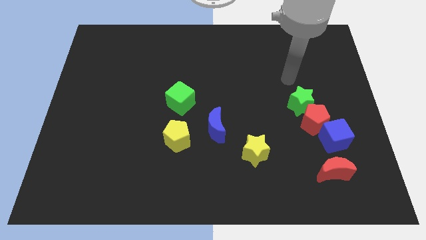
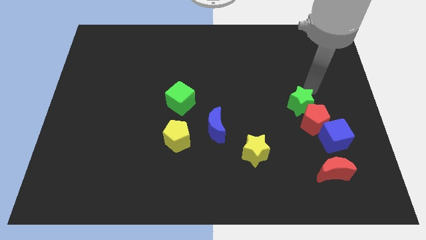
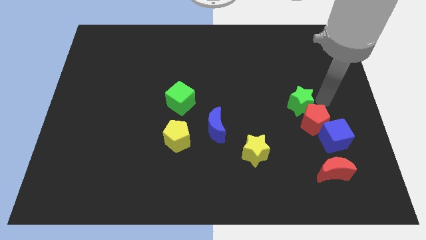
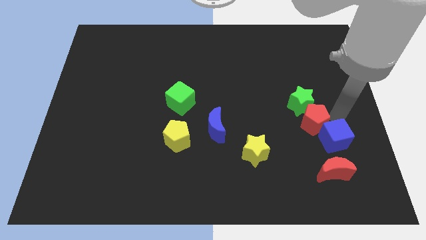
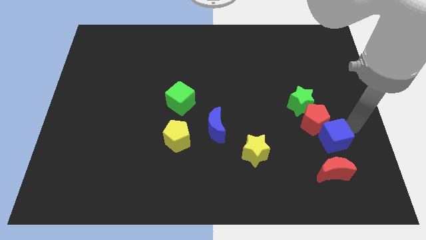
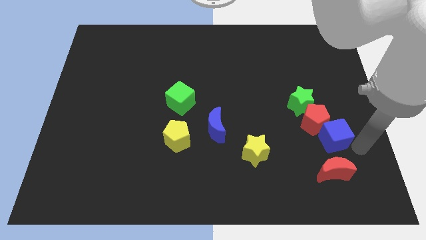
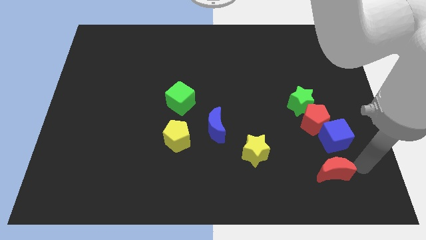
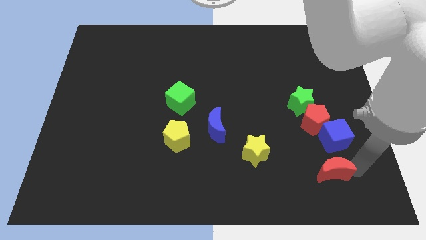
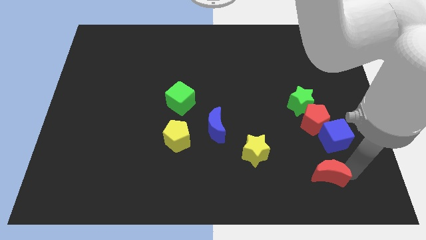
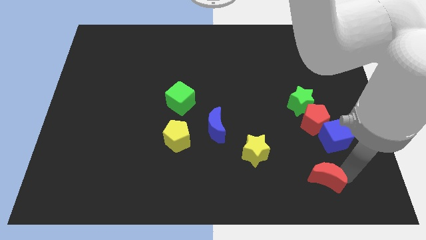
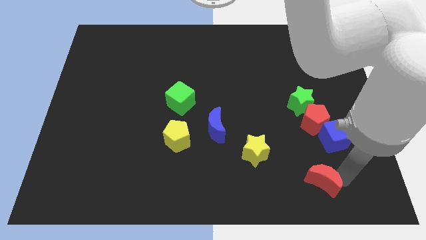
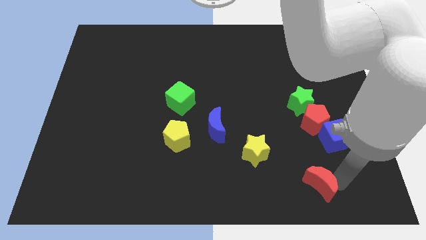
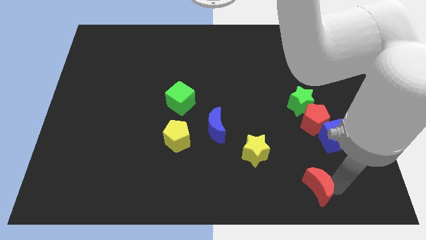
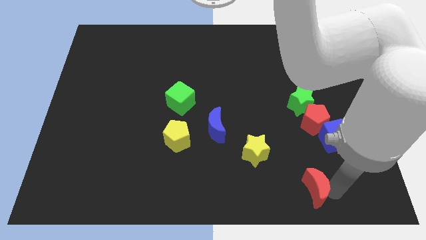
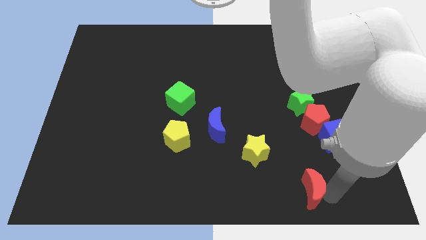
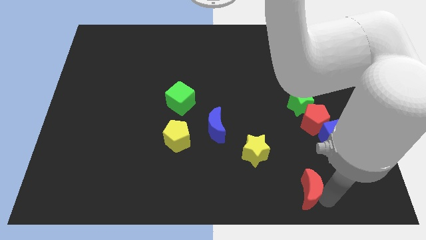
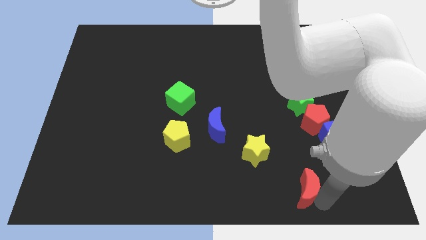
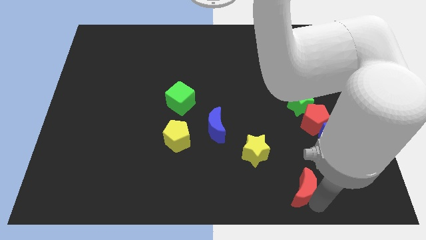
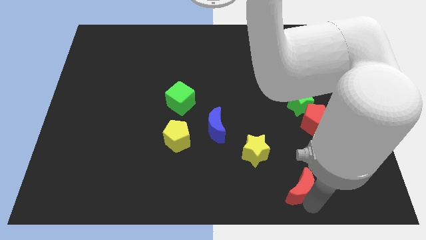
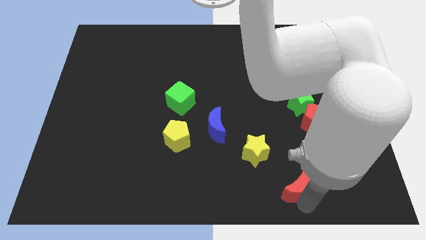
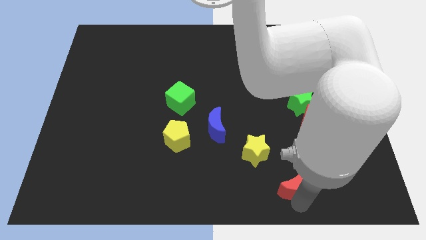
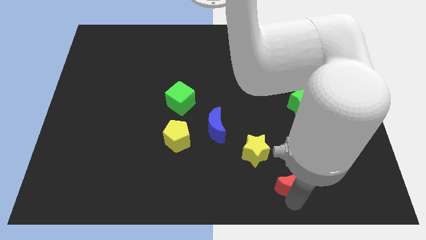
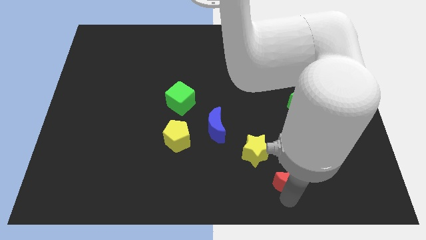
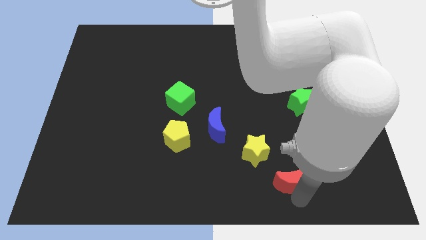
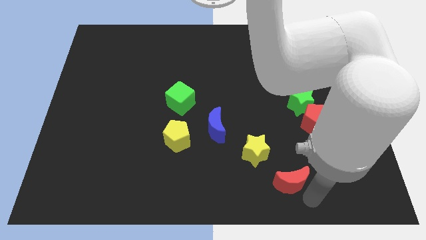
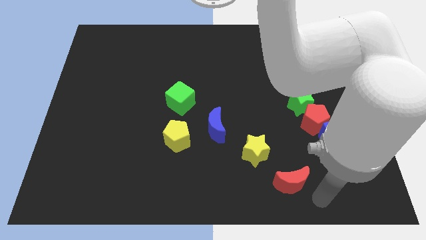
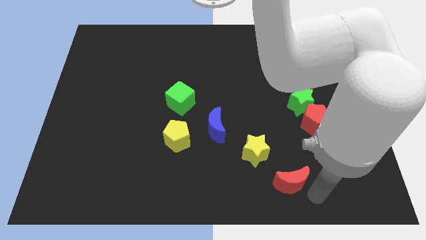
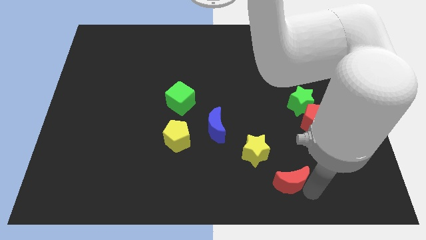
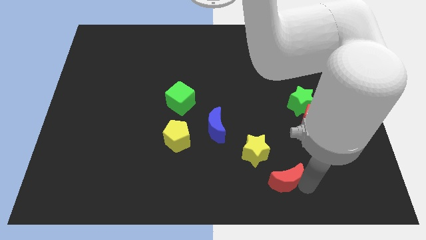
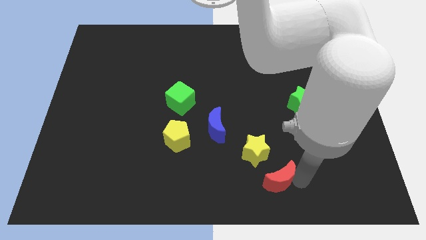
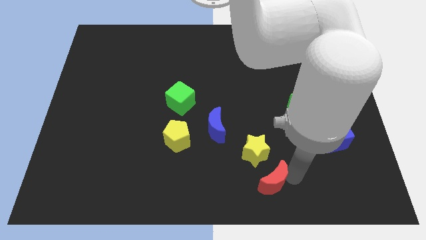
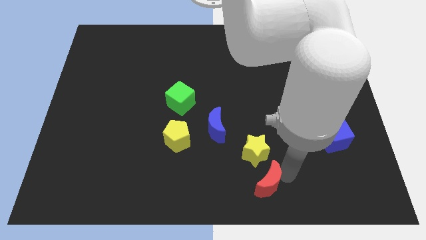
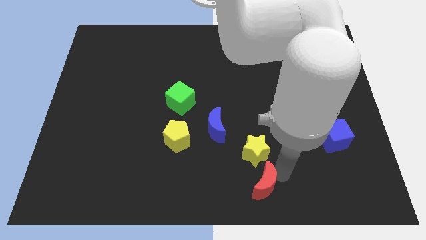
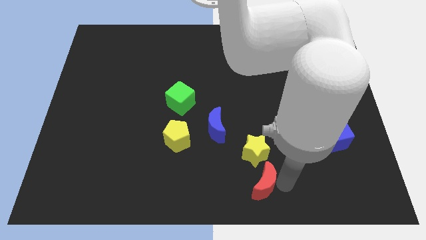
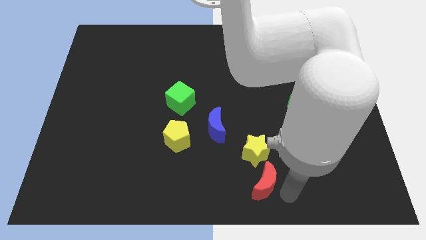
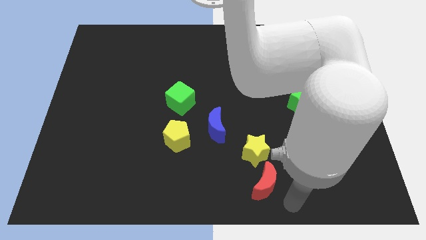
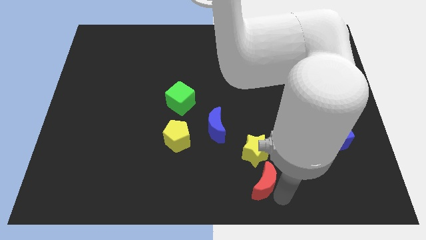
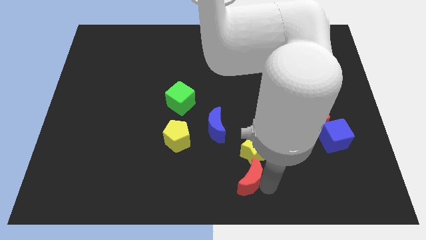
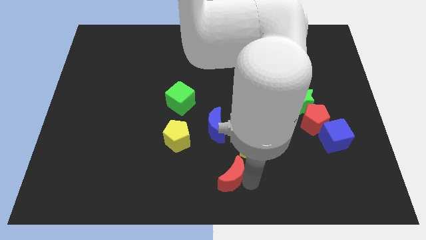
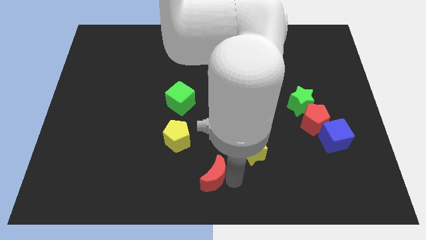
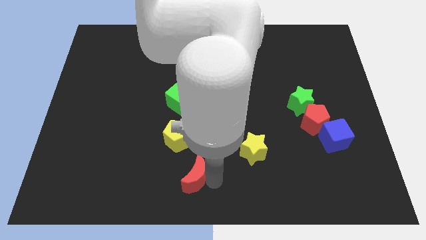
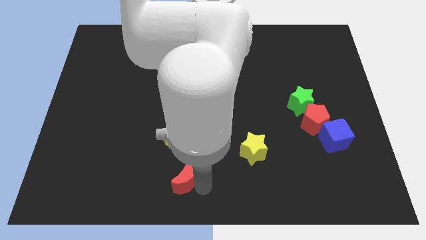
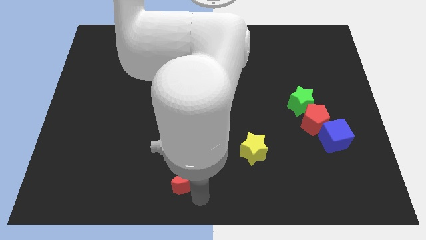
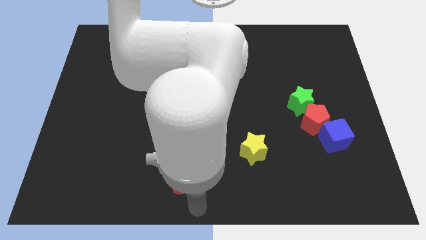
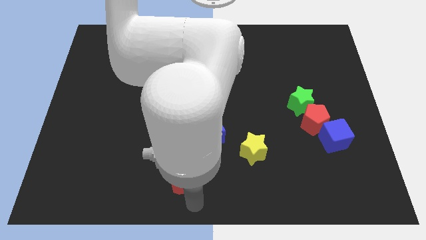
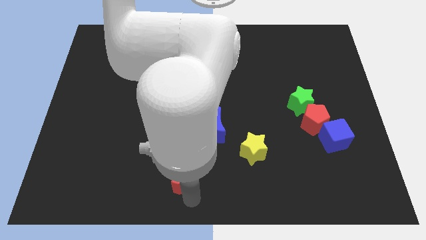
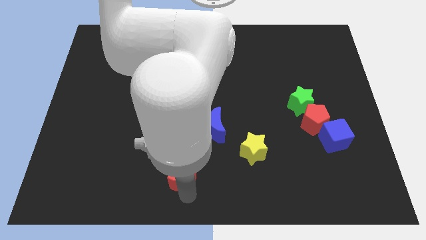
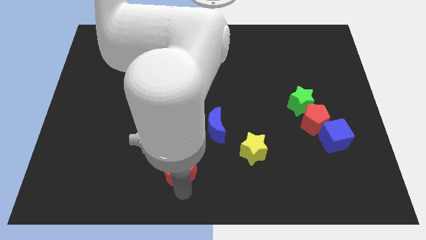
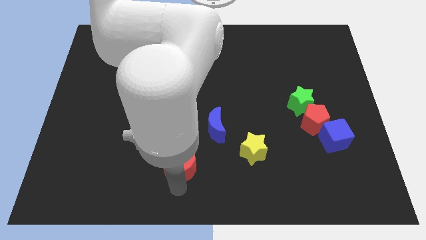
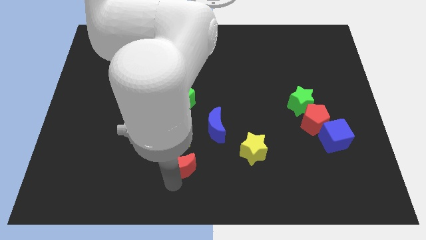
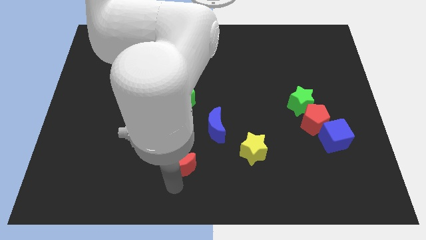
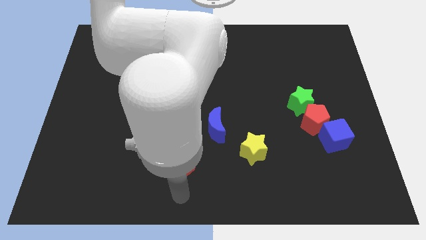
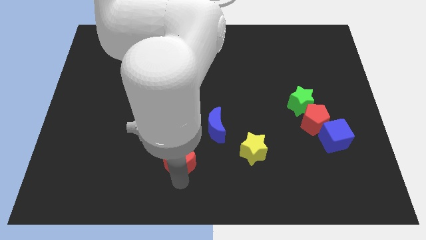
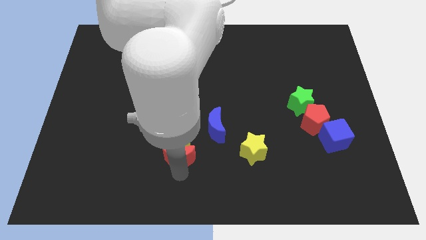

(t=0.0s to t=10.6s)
move the red moon below the green cube

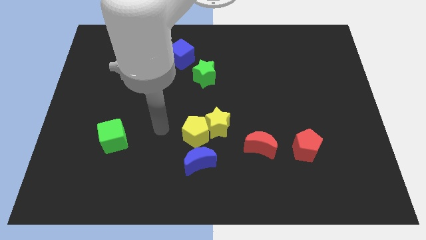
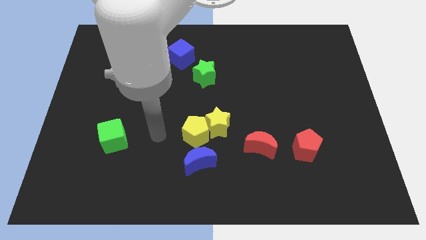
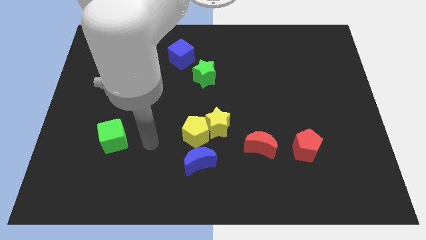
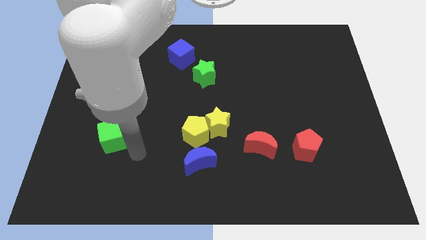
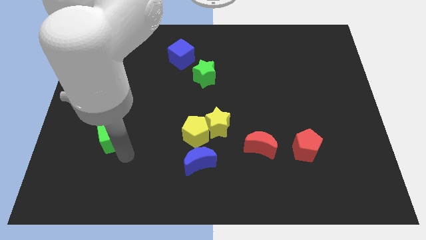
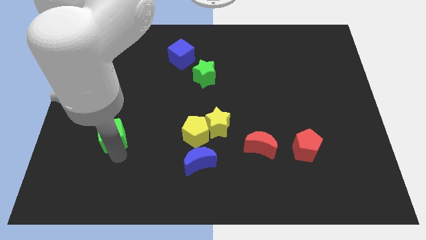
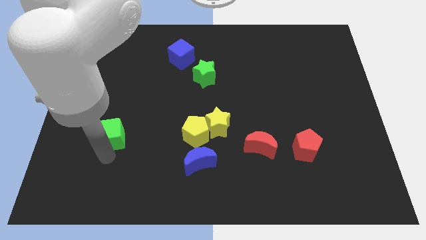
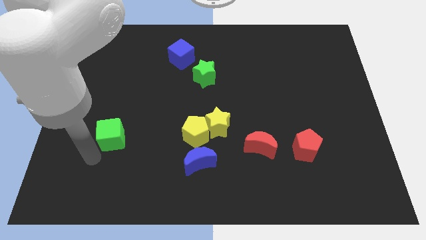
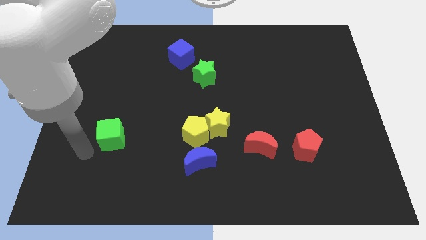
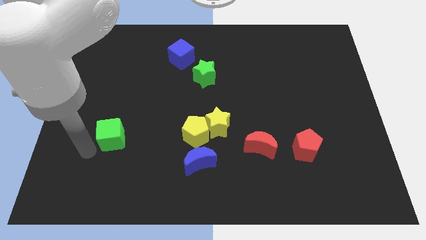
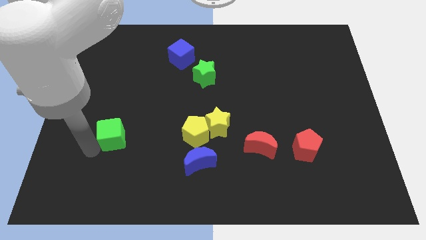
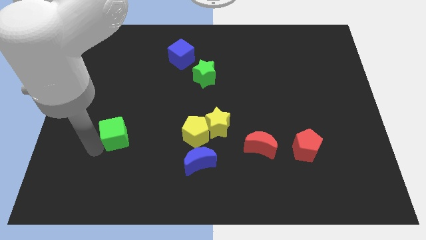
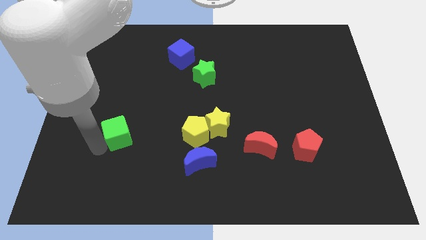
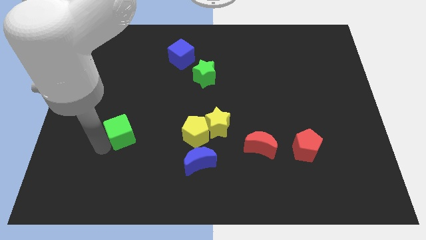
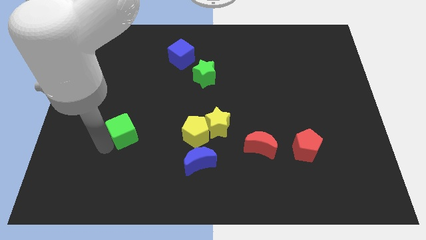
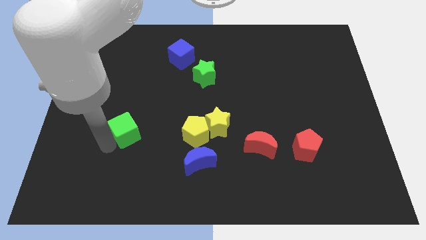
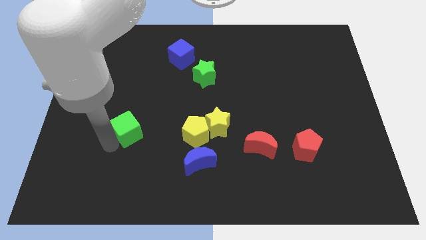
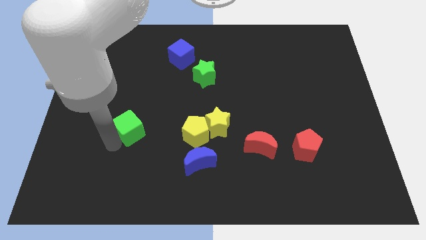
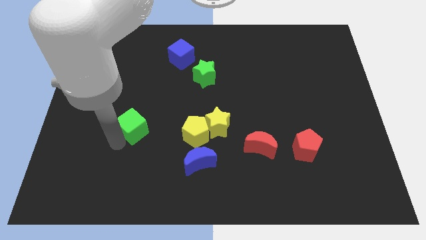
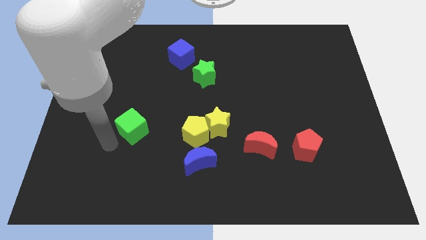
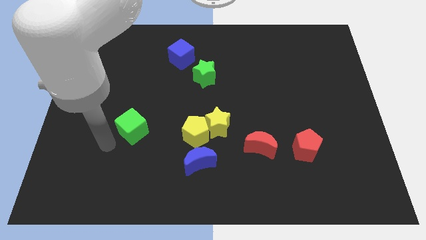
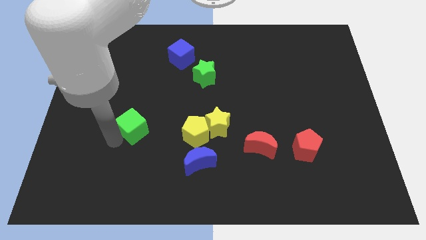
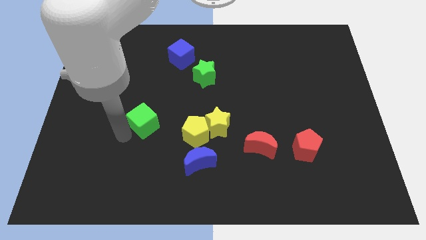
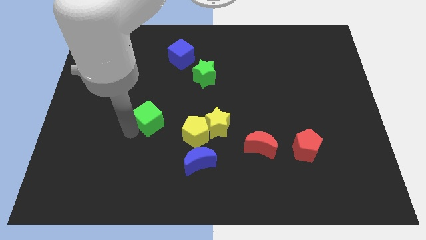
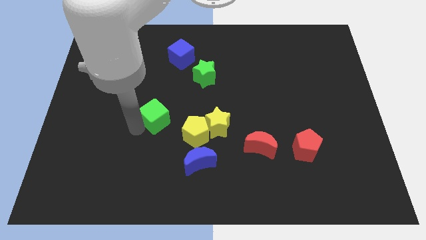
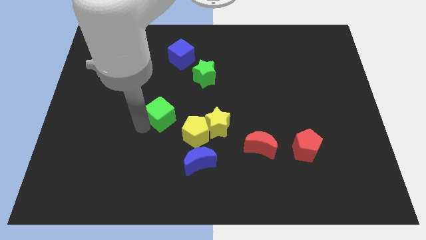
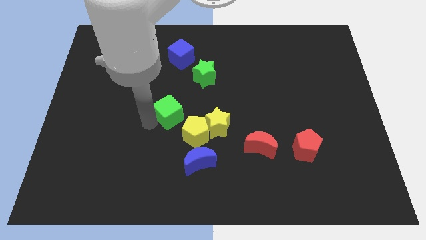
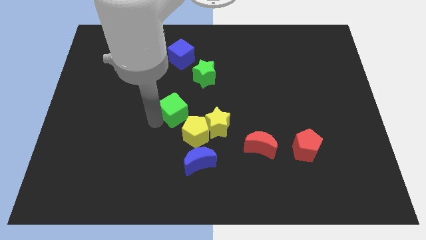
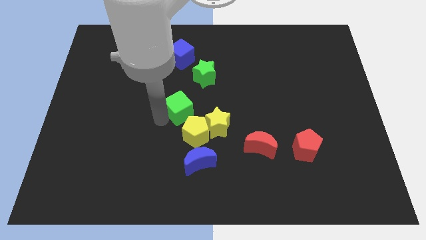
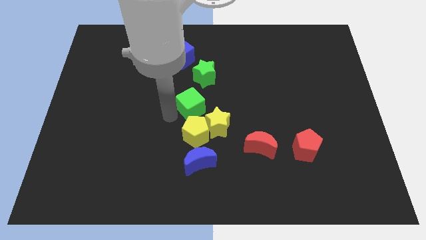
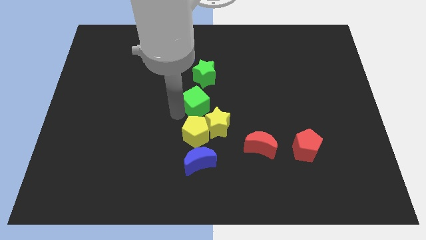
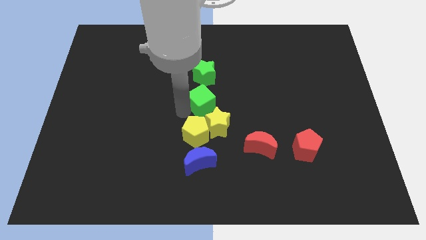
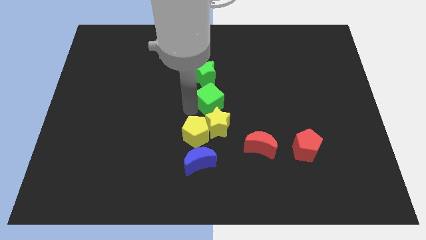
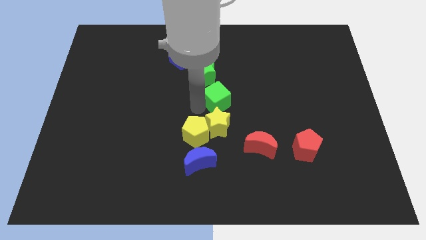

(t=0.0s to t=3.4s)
slide the green cube diagonally down and to the right of the green star
